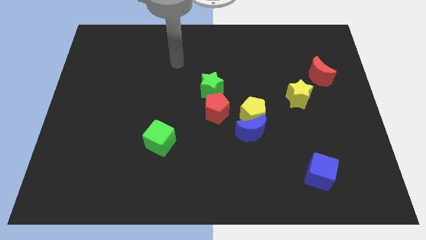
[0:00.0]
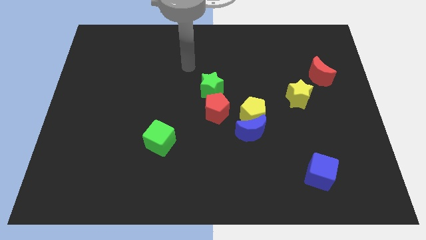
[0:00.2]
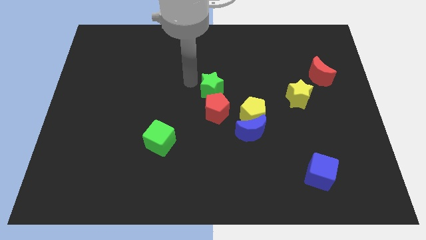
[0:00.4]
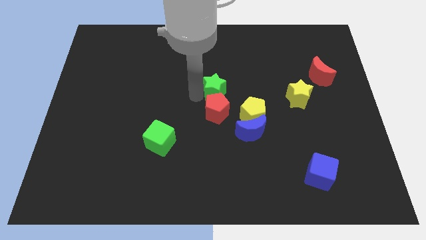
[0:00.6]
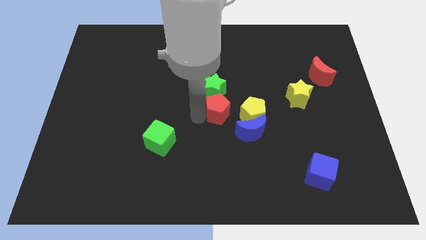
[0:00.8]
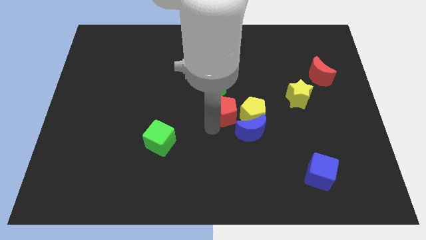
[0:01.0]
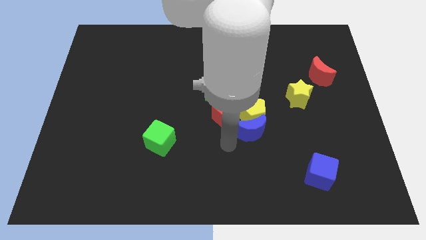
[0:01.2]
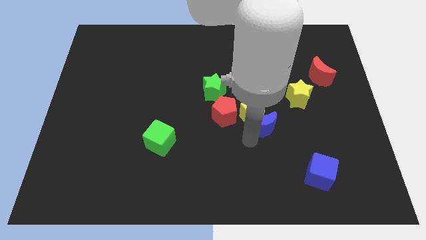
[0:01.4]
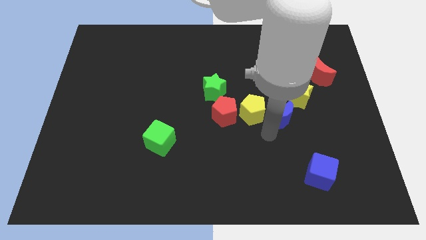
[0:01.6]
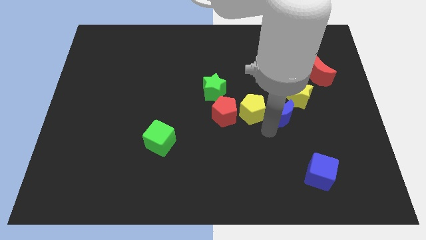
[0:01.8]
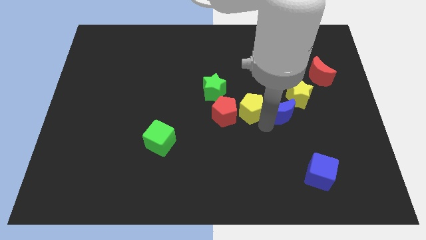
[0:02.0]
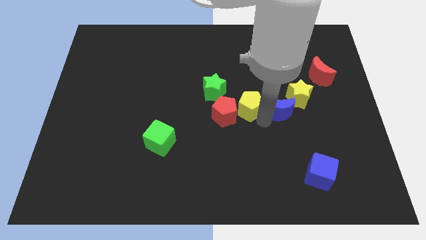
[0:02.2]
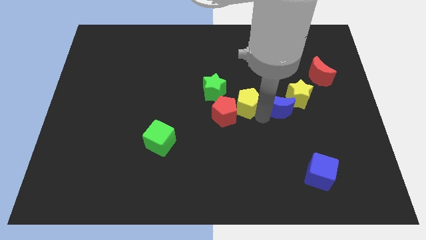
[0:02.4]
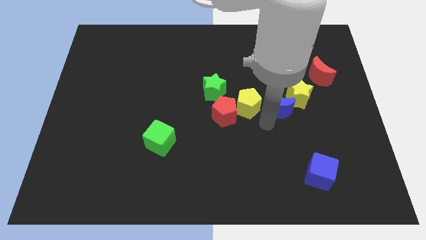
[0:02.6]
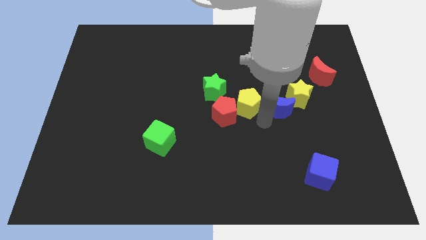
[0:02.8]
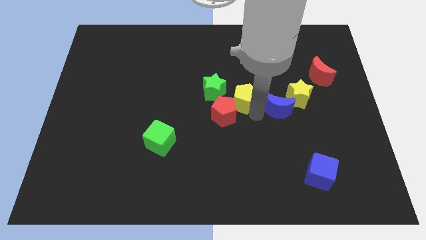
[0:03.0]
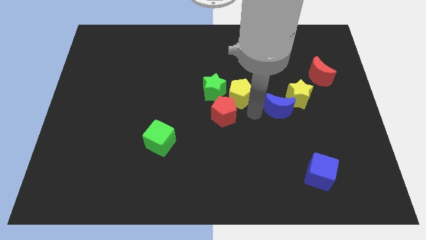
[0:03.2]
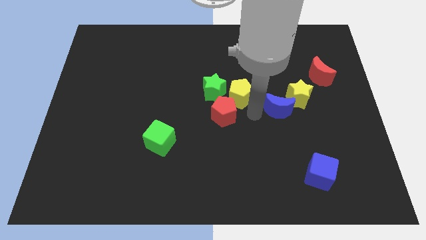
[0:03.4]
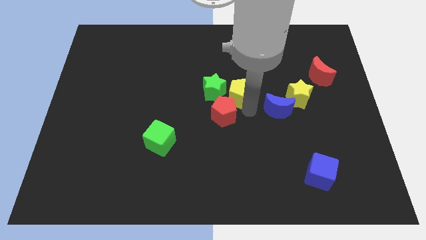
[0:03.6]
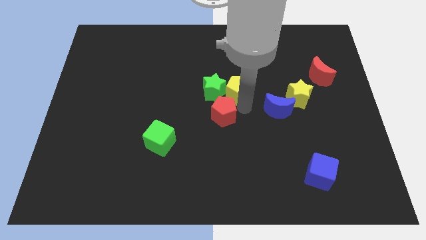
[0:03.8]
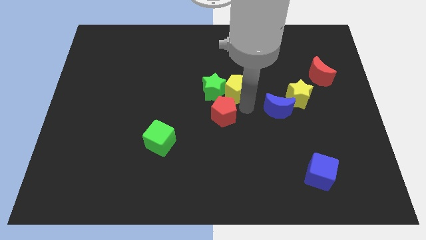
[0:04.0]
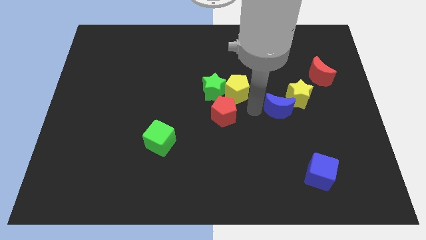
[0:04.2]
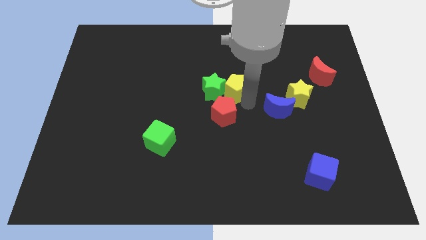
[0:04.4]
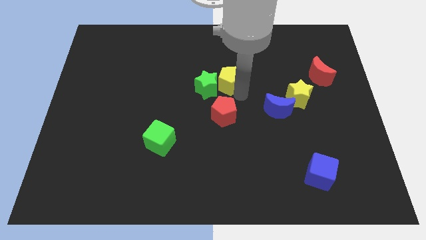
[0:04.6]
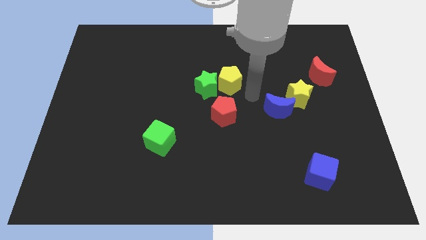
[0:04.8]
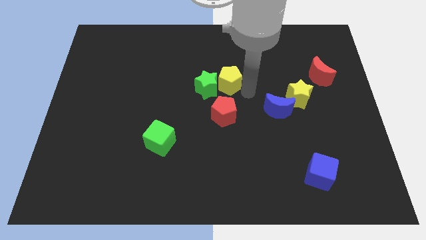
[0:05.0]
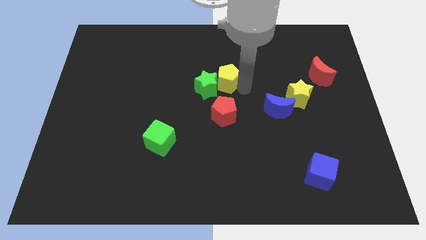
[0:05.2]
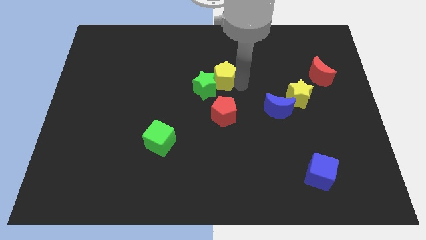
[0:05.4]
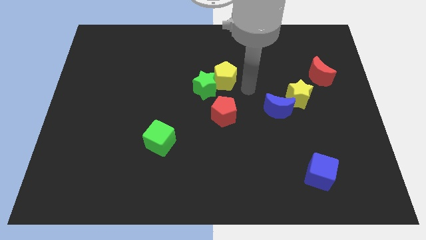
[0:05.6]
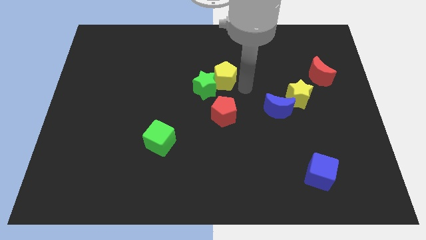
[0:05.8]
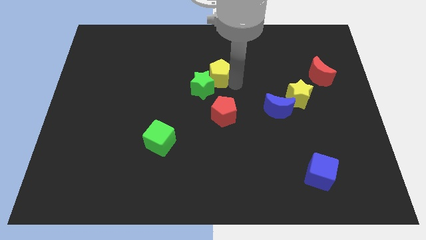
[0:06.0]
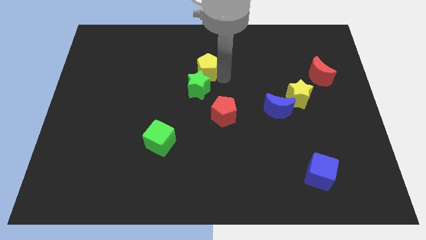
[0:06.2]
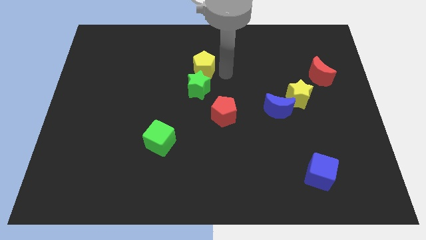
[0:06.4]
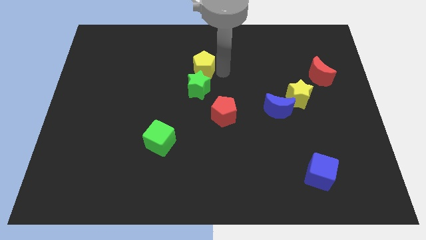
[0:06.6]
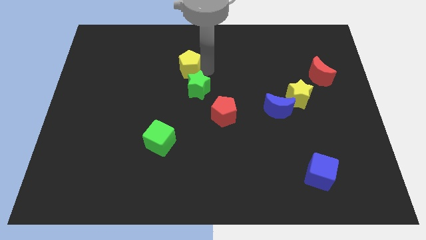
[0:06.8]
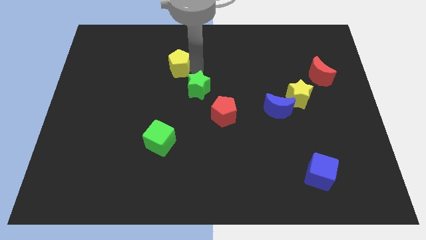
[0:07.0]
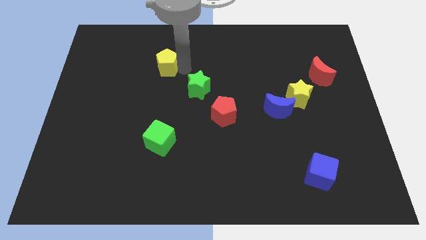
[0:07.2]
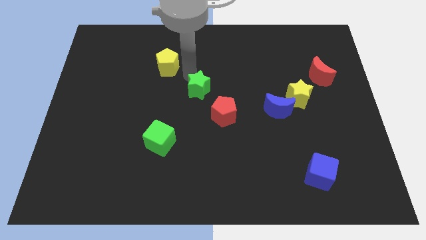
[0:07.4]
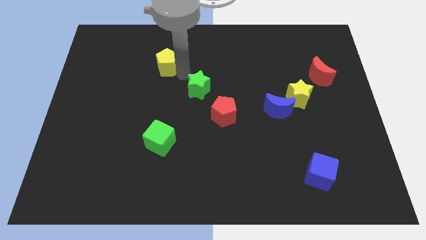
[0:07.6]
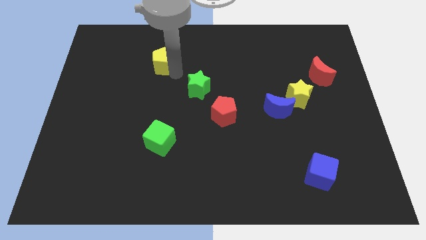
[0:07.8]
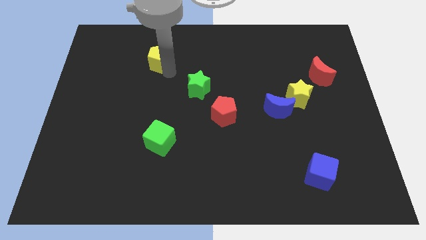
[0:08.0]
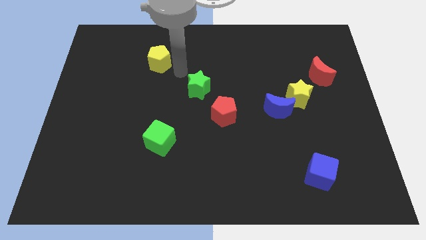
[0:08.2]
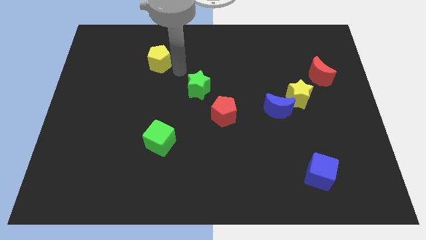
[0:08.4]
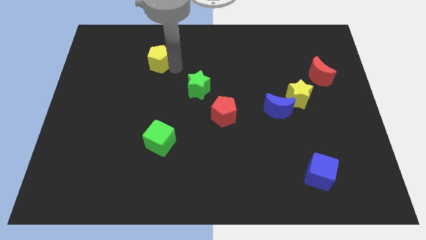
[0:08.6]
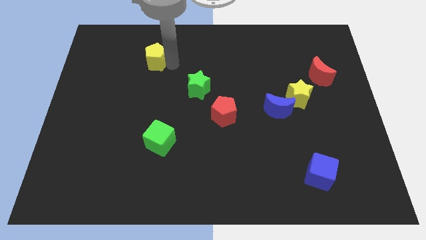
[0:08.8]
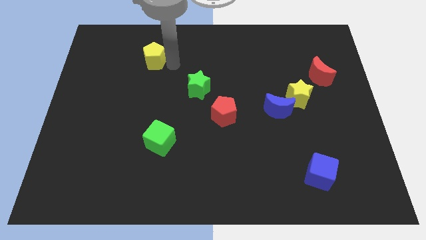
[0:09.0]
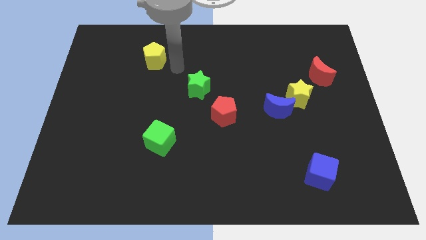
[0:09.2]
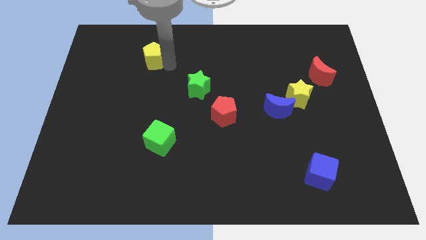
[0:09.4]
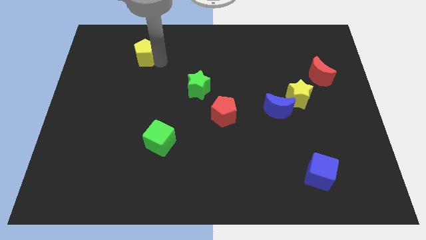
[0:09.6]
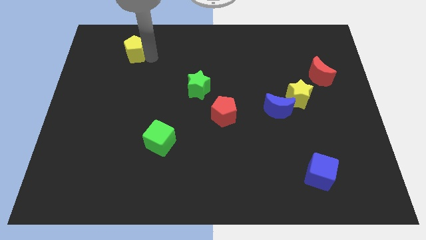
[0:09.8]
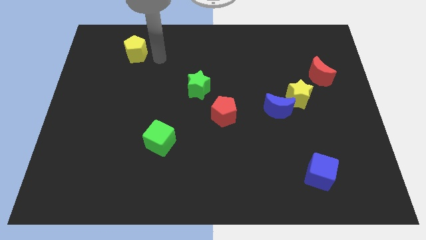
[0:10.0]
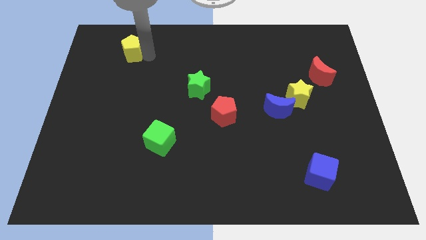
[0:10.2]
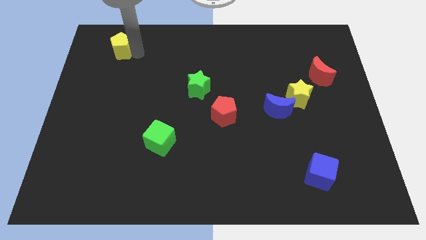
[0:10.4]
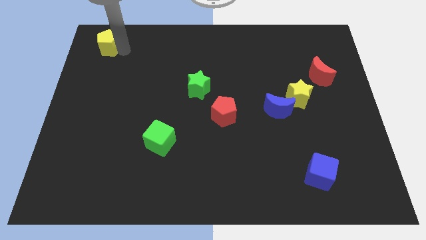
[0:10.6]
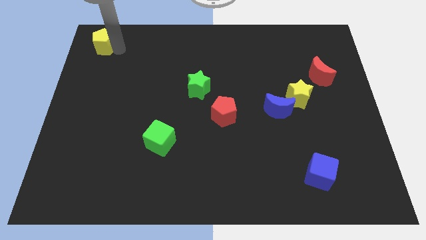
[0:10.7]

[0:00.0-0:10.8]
slide the yellow pentagon to the top left
